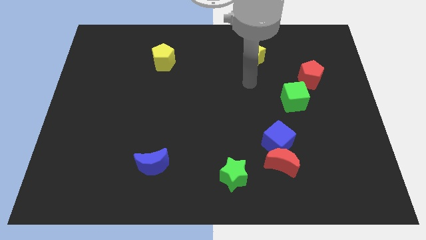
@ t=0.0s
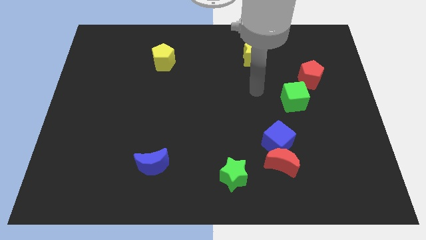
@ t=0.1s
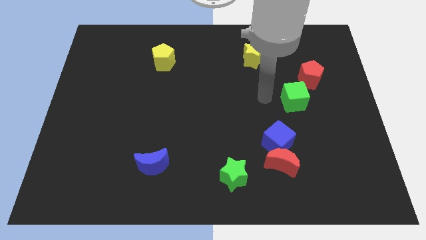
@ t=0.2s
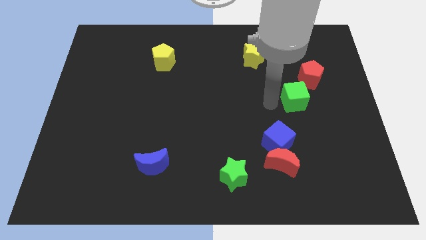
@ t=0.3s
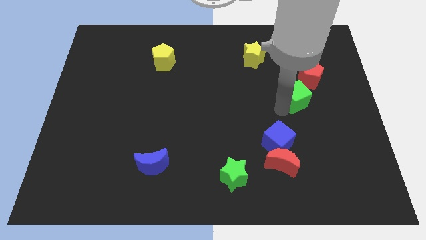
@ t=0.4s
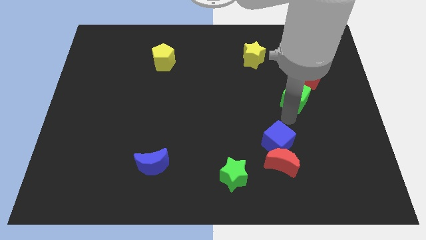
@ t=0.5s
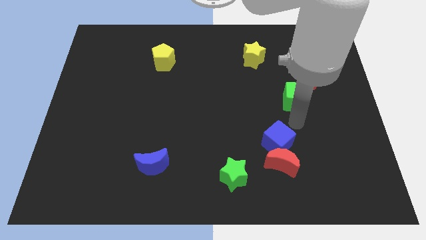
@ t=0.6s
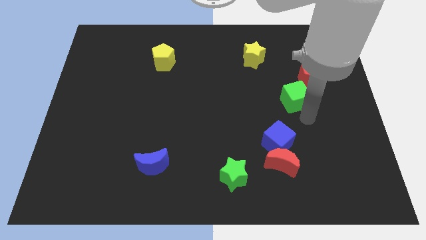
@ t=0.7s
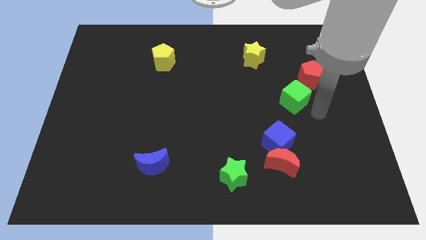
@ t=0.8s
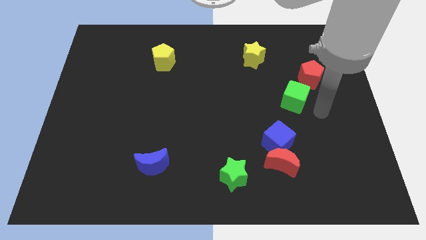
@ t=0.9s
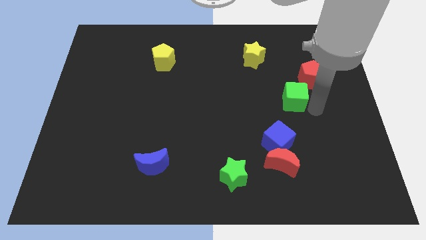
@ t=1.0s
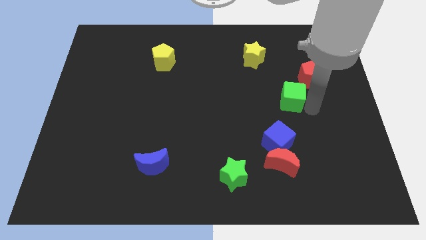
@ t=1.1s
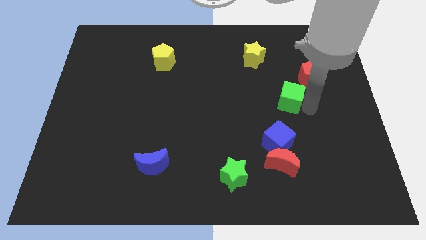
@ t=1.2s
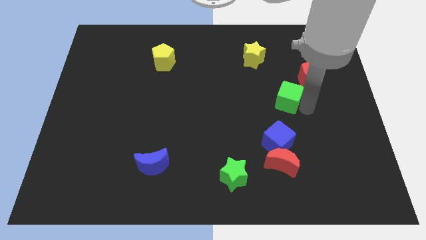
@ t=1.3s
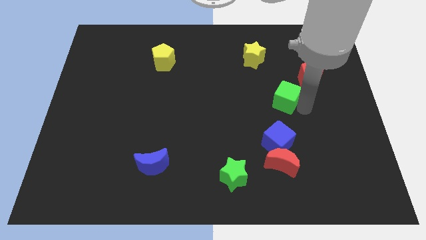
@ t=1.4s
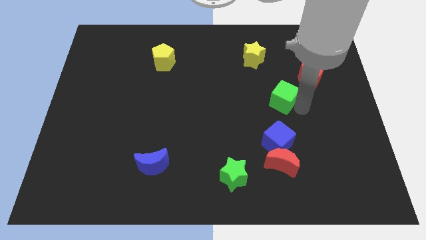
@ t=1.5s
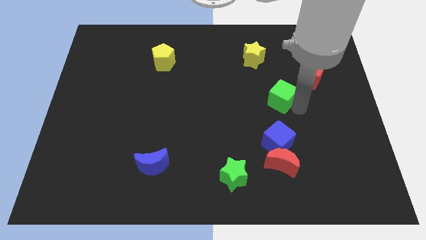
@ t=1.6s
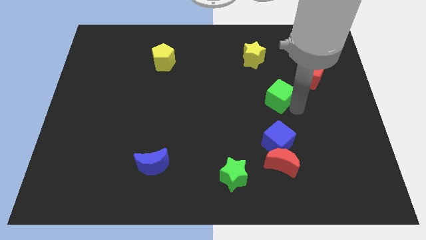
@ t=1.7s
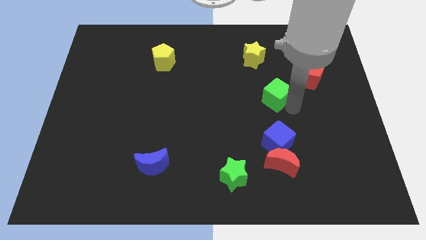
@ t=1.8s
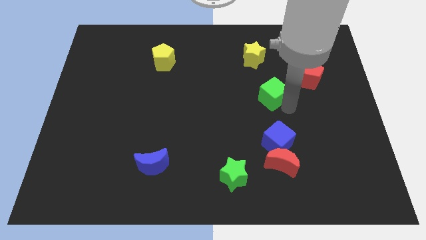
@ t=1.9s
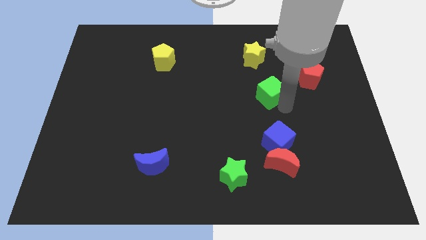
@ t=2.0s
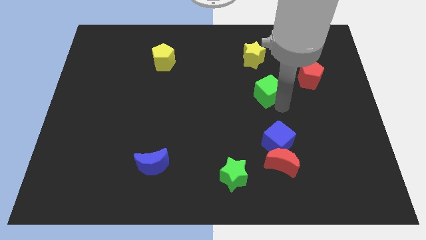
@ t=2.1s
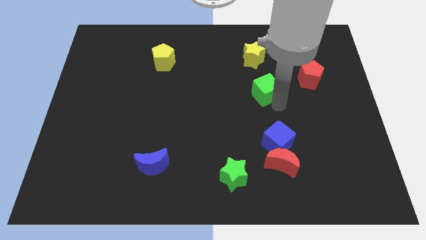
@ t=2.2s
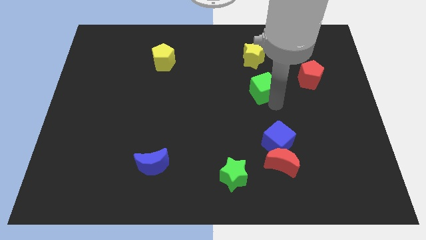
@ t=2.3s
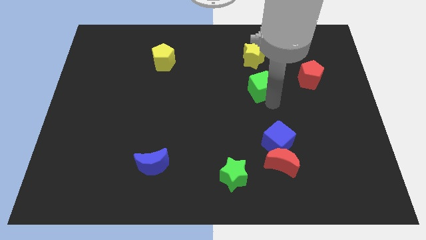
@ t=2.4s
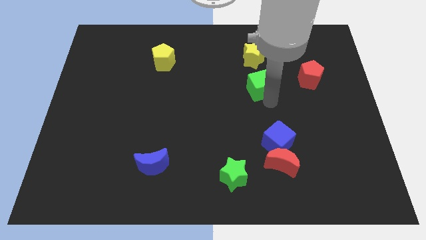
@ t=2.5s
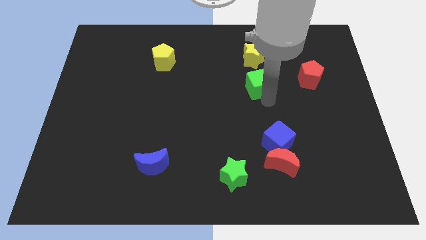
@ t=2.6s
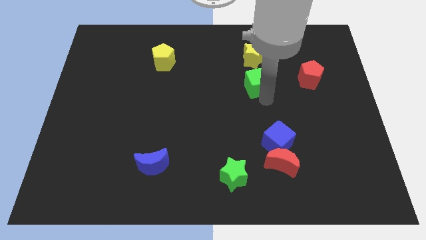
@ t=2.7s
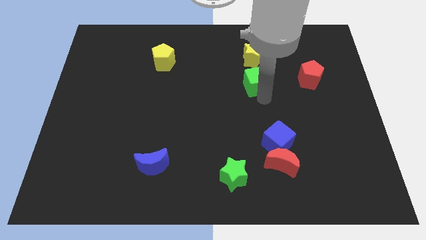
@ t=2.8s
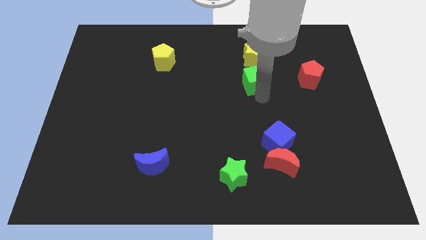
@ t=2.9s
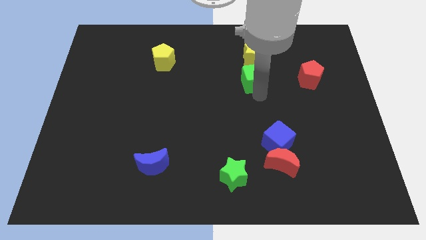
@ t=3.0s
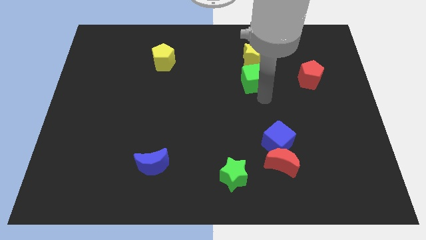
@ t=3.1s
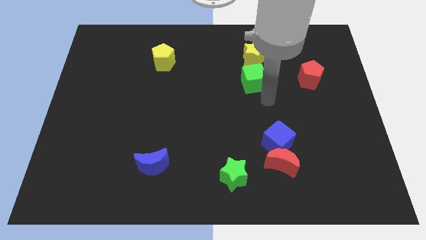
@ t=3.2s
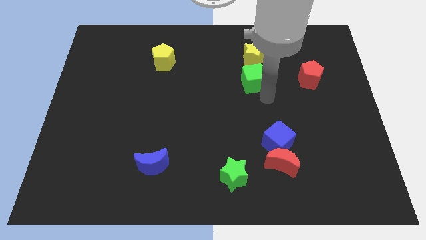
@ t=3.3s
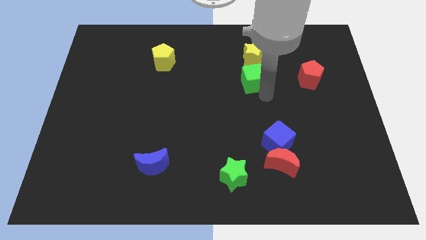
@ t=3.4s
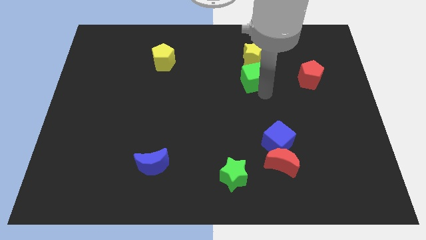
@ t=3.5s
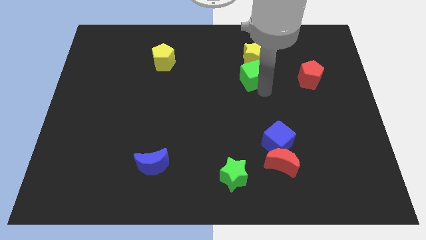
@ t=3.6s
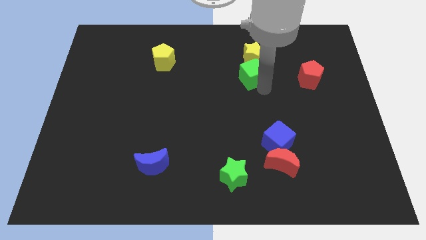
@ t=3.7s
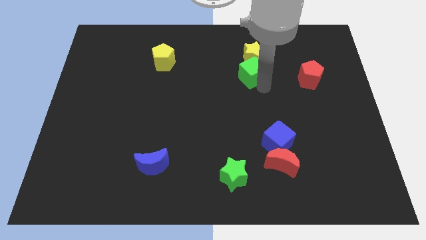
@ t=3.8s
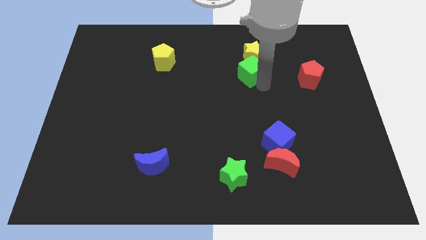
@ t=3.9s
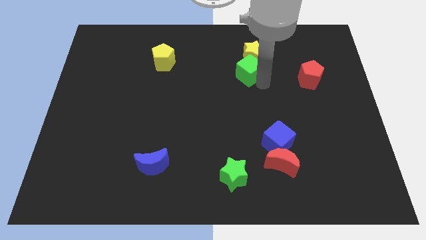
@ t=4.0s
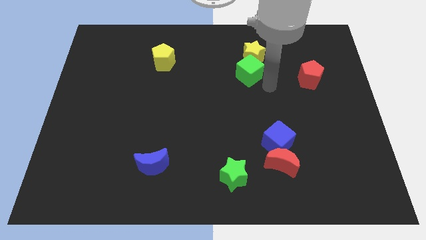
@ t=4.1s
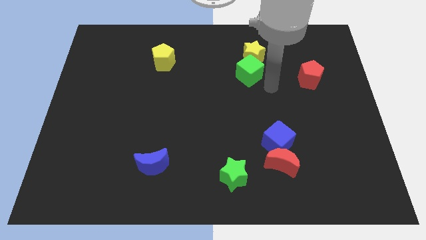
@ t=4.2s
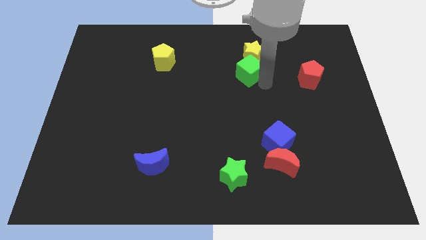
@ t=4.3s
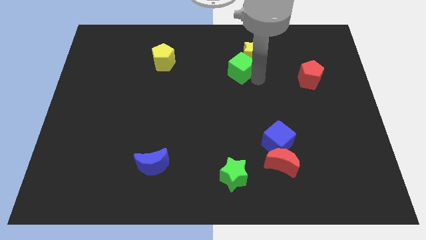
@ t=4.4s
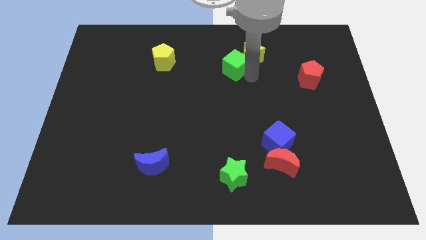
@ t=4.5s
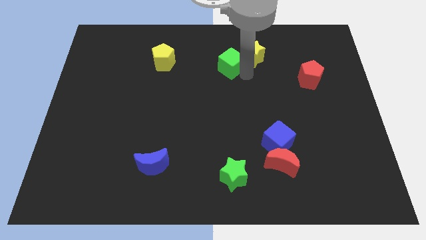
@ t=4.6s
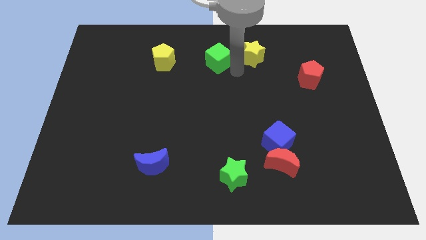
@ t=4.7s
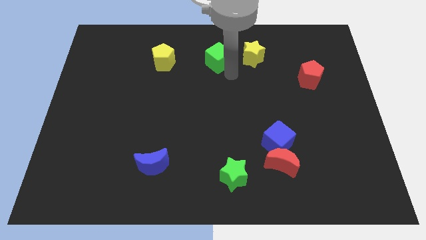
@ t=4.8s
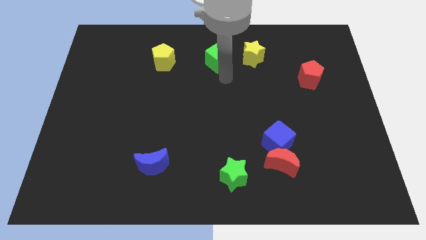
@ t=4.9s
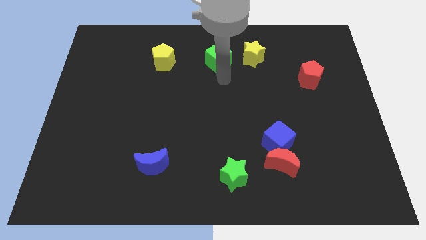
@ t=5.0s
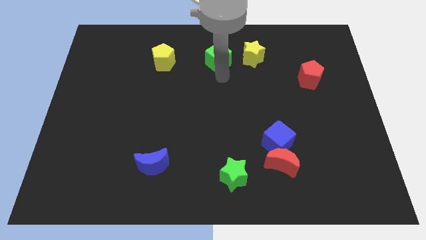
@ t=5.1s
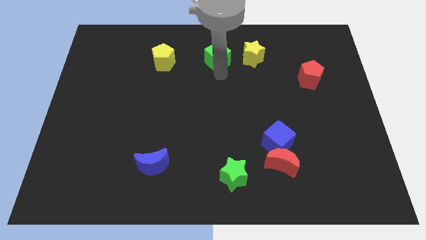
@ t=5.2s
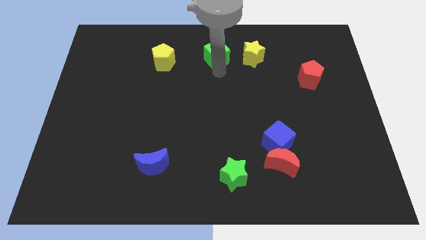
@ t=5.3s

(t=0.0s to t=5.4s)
put the green cube to the top

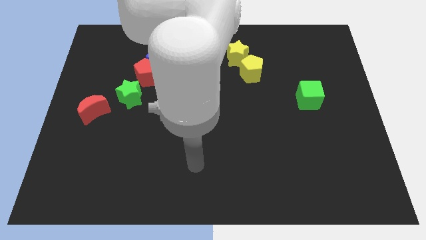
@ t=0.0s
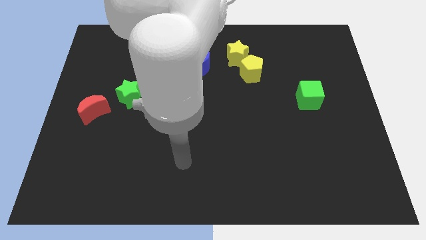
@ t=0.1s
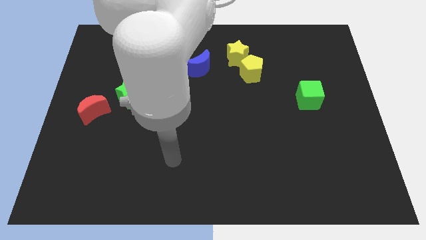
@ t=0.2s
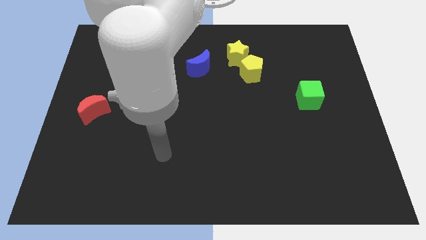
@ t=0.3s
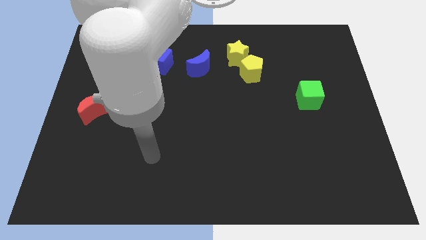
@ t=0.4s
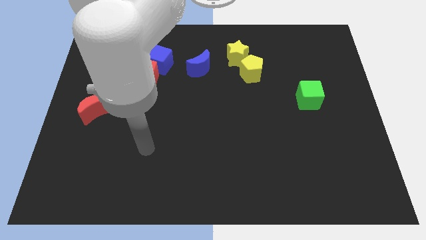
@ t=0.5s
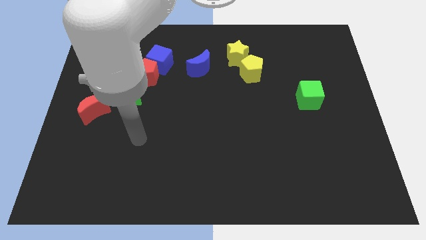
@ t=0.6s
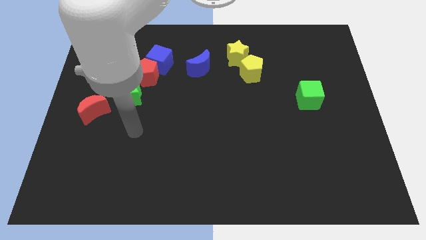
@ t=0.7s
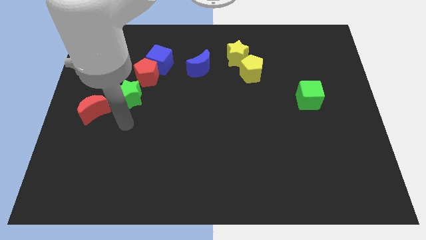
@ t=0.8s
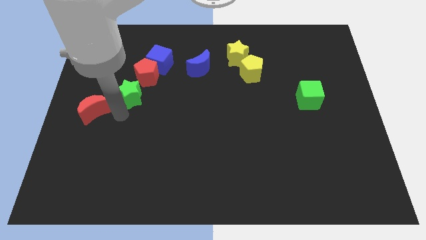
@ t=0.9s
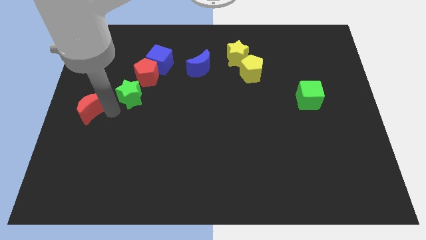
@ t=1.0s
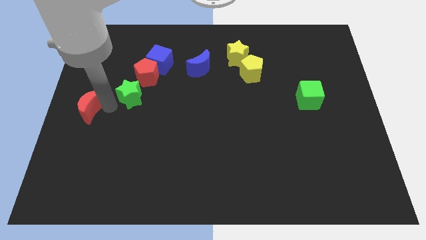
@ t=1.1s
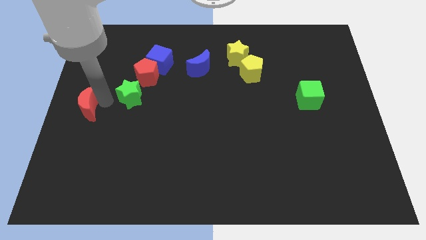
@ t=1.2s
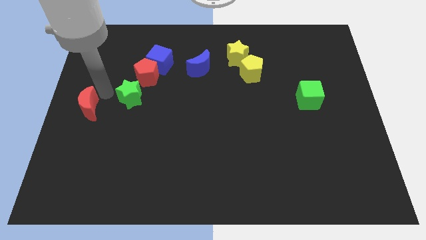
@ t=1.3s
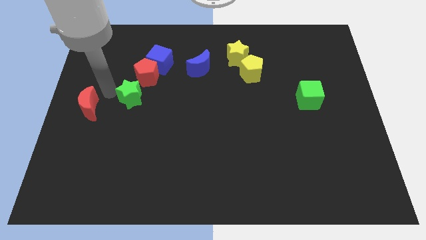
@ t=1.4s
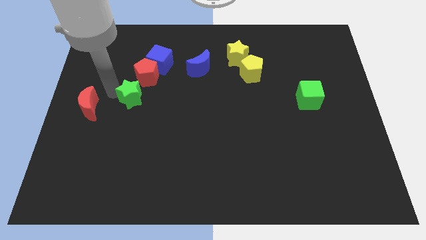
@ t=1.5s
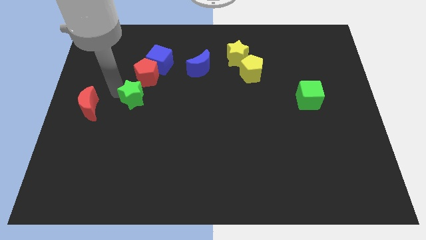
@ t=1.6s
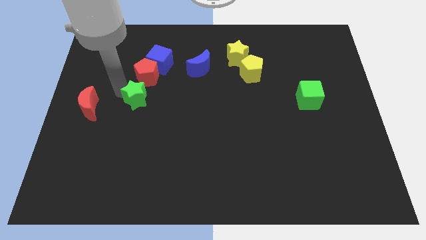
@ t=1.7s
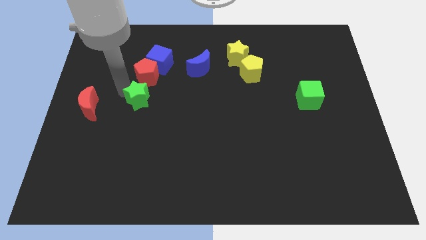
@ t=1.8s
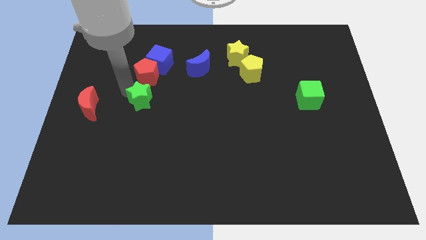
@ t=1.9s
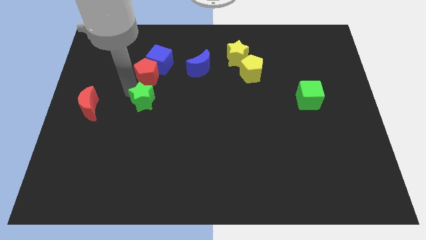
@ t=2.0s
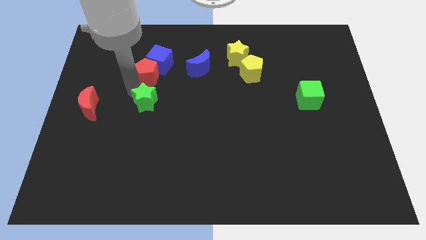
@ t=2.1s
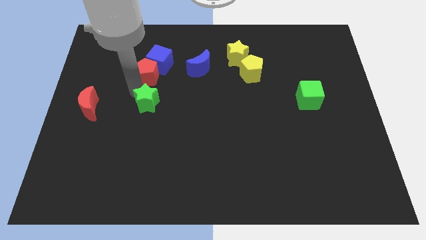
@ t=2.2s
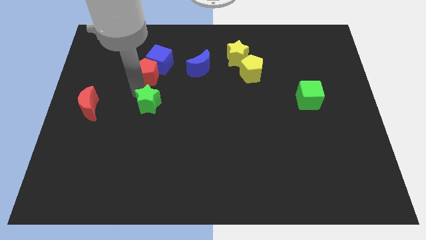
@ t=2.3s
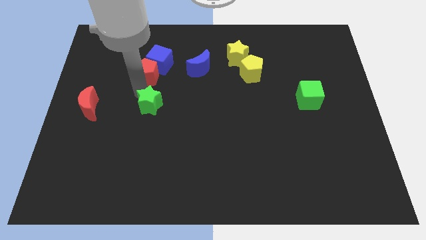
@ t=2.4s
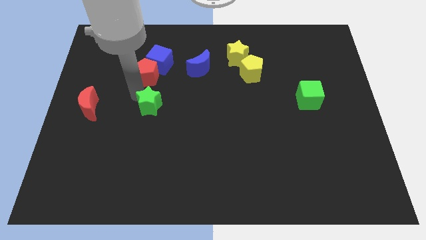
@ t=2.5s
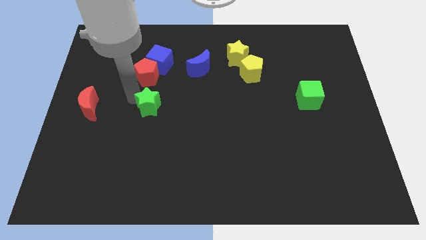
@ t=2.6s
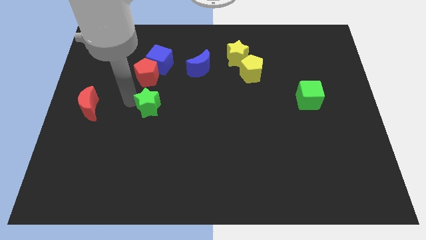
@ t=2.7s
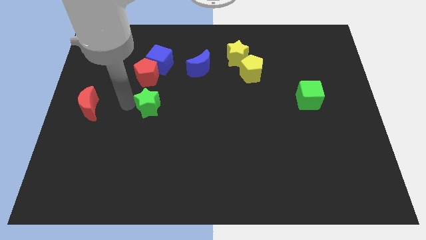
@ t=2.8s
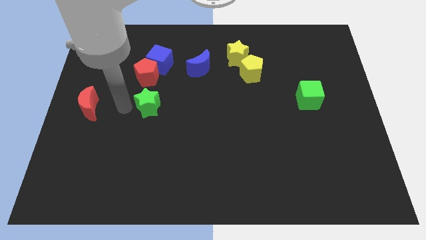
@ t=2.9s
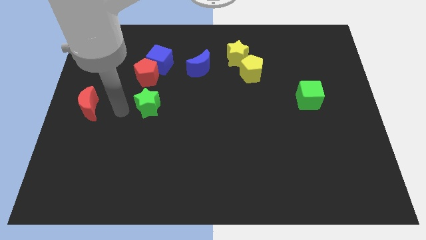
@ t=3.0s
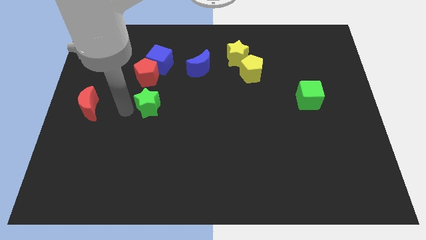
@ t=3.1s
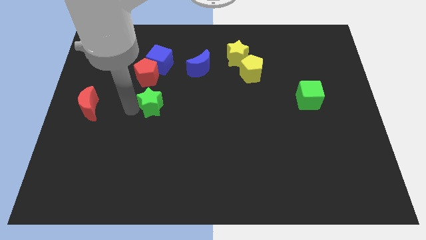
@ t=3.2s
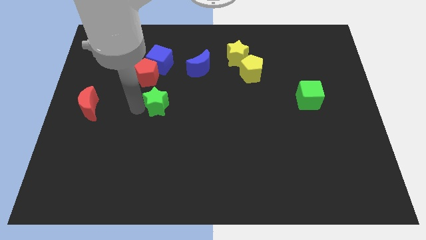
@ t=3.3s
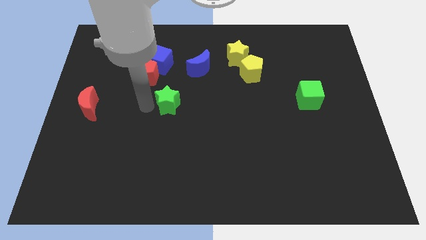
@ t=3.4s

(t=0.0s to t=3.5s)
slide the green star to the center
